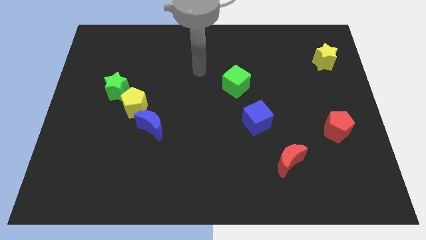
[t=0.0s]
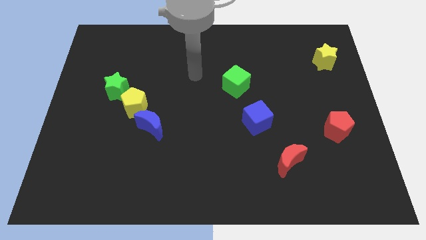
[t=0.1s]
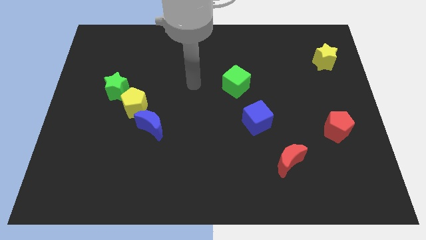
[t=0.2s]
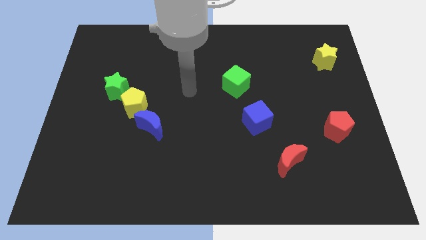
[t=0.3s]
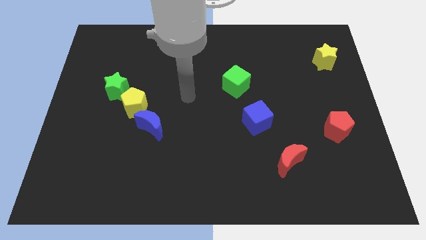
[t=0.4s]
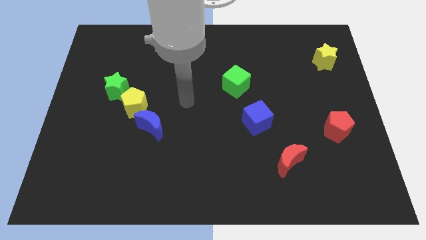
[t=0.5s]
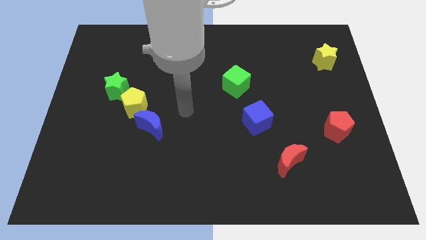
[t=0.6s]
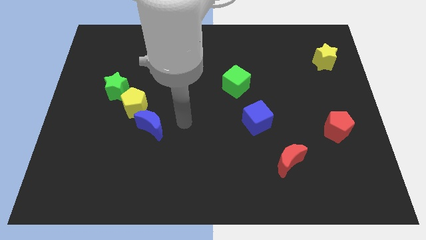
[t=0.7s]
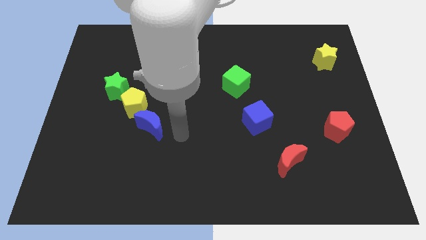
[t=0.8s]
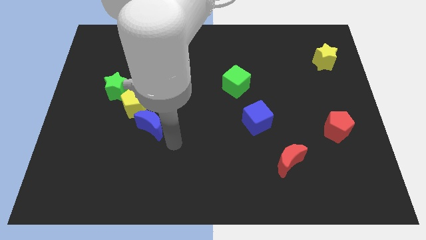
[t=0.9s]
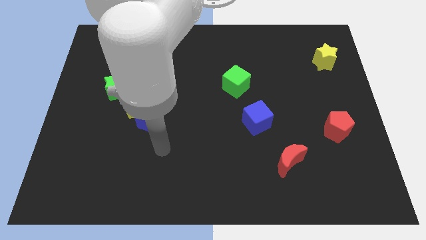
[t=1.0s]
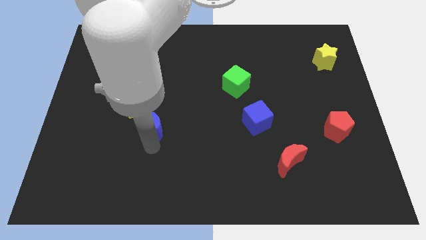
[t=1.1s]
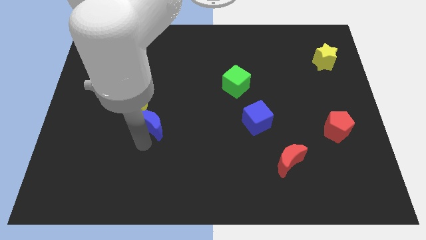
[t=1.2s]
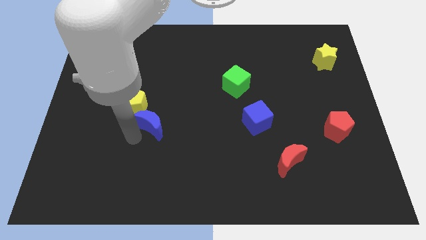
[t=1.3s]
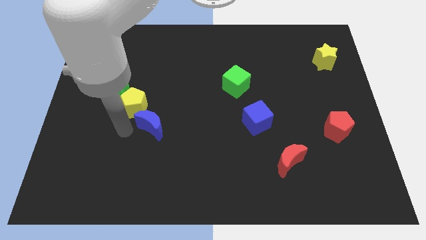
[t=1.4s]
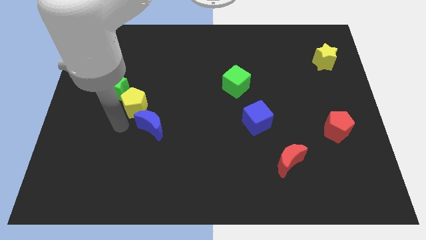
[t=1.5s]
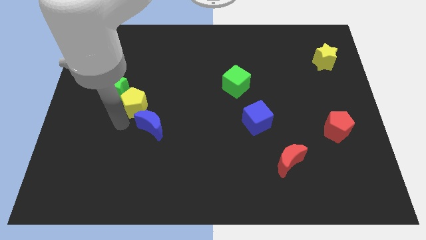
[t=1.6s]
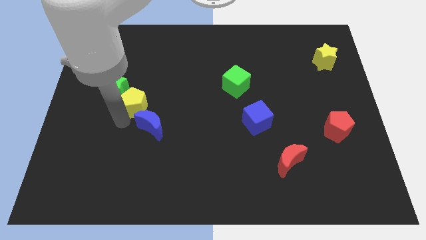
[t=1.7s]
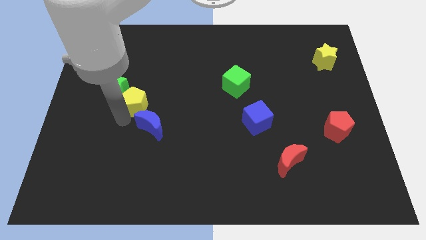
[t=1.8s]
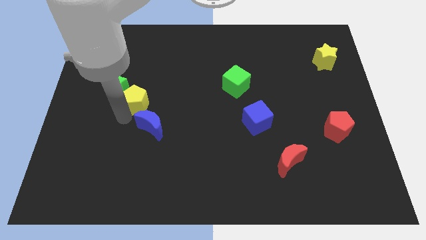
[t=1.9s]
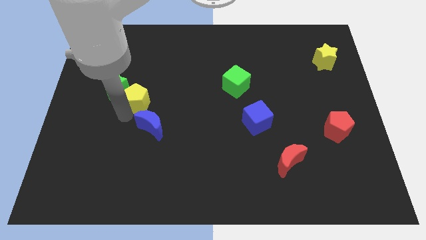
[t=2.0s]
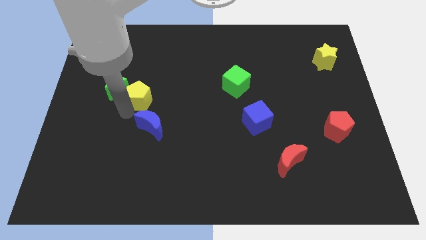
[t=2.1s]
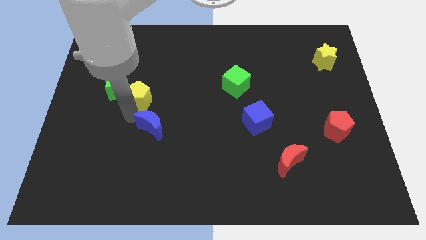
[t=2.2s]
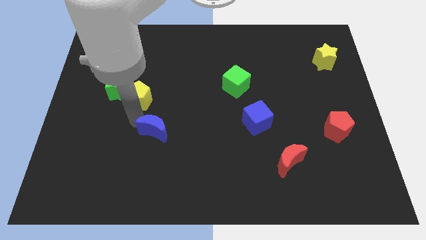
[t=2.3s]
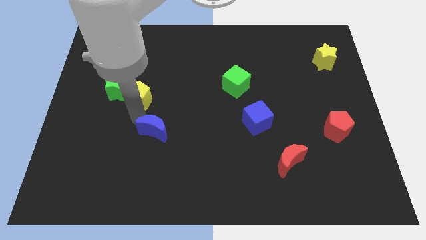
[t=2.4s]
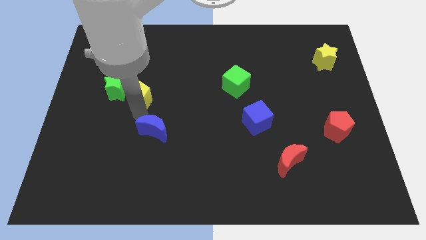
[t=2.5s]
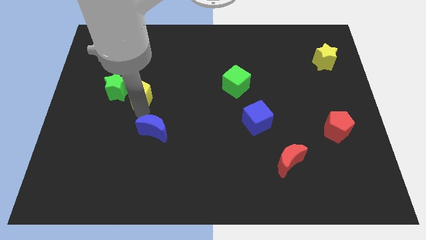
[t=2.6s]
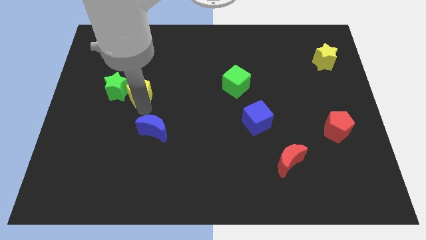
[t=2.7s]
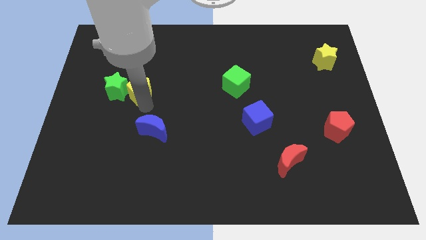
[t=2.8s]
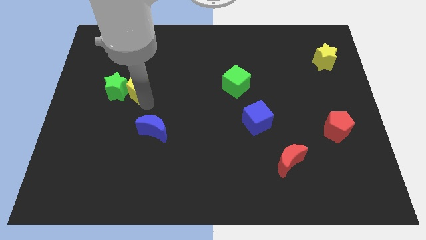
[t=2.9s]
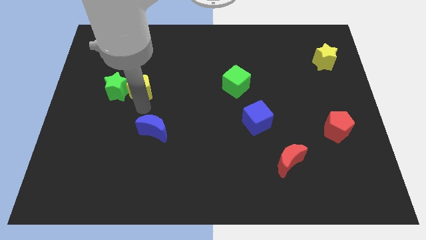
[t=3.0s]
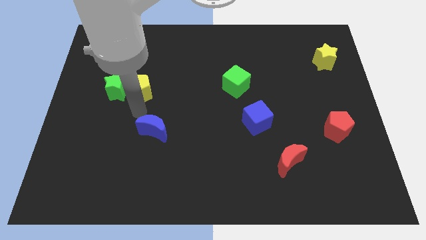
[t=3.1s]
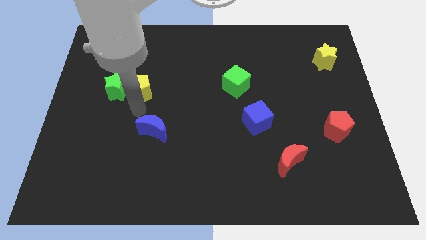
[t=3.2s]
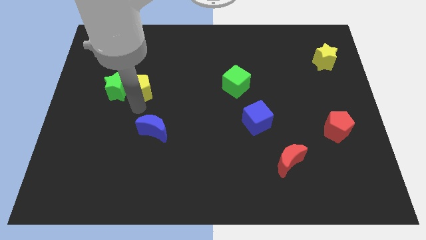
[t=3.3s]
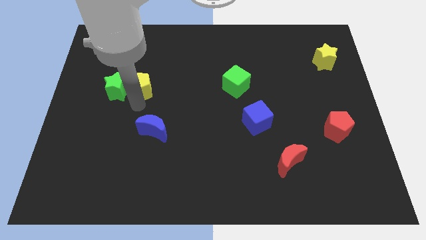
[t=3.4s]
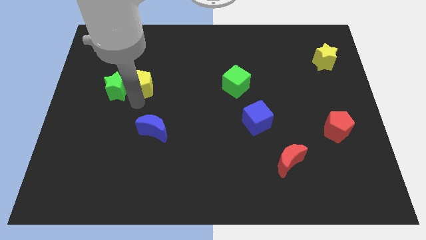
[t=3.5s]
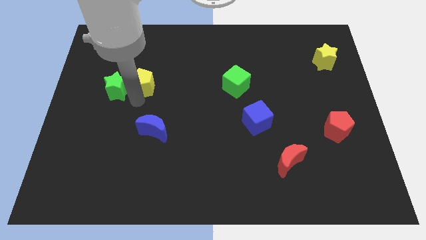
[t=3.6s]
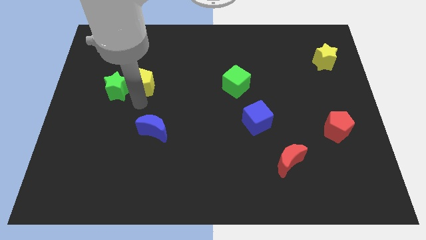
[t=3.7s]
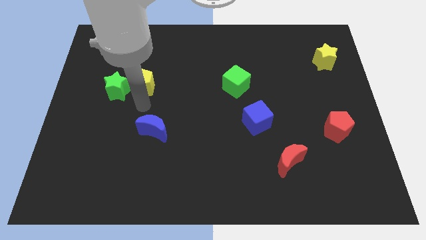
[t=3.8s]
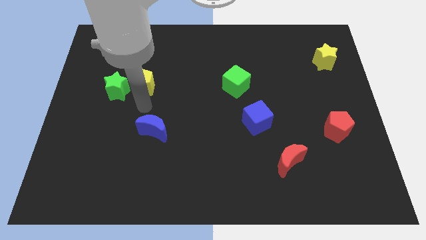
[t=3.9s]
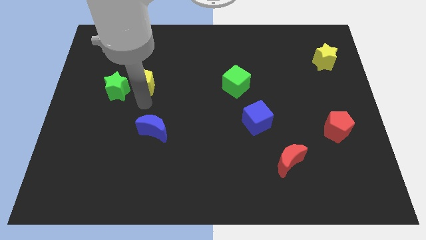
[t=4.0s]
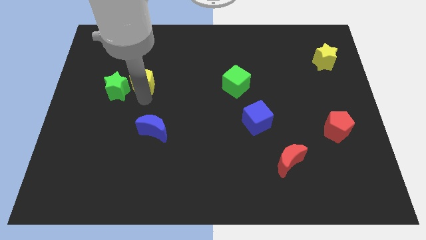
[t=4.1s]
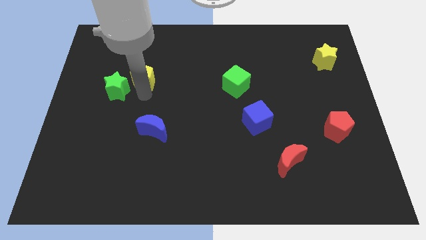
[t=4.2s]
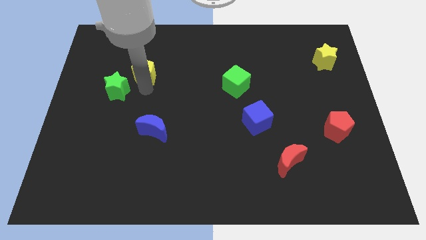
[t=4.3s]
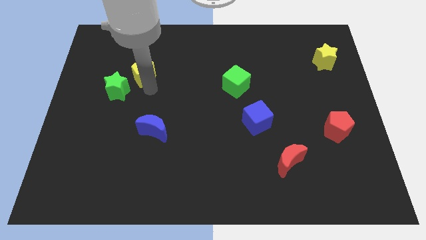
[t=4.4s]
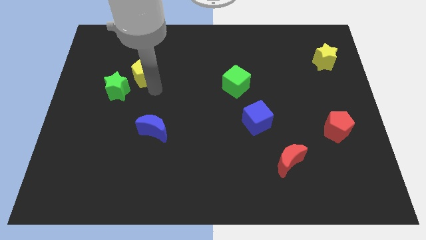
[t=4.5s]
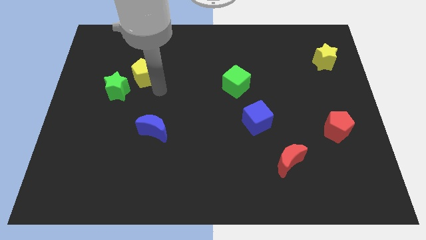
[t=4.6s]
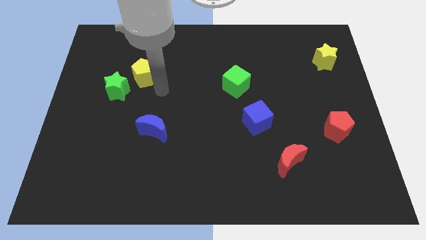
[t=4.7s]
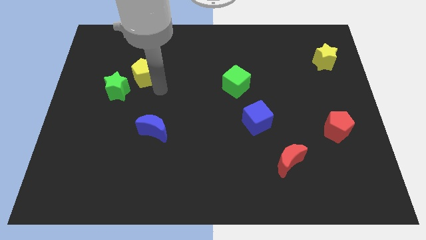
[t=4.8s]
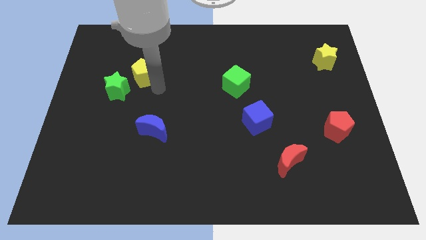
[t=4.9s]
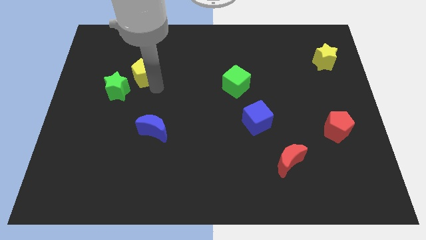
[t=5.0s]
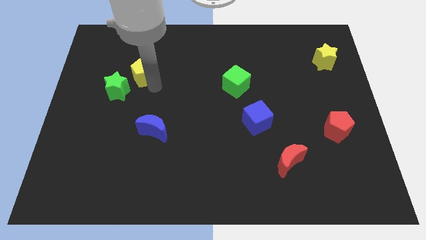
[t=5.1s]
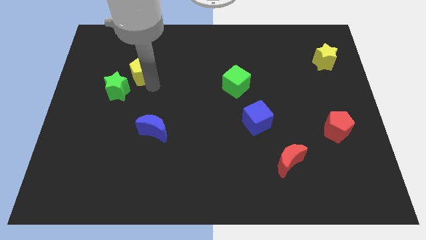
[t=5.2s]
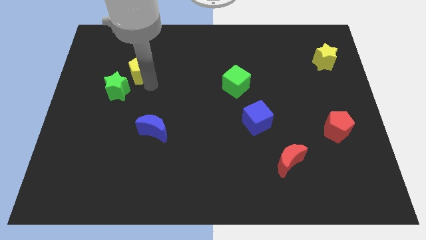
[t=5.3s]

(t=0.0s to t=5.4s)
push the yellow pentagon to the top side of the green star

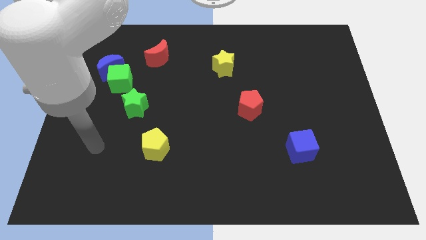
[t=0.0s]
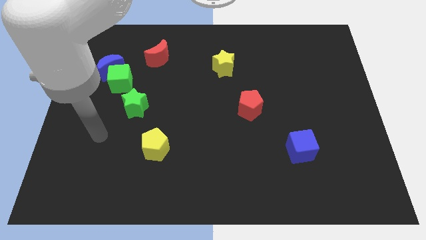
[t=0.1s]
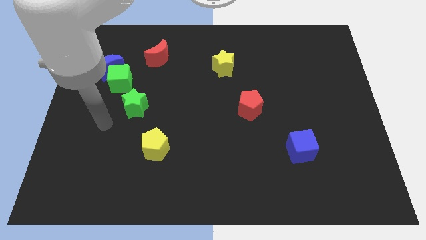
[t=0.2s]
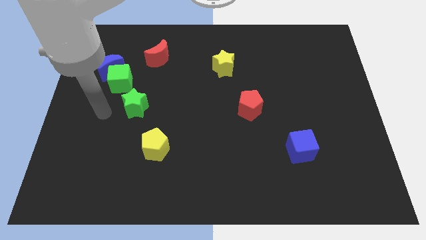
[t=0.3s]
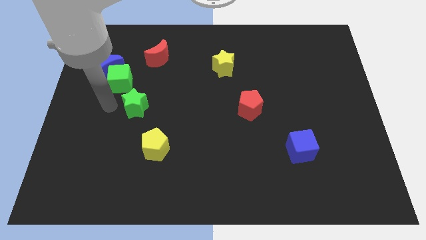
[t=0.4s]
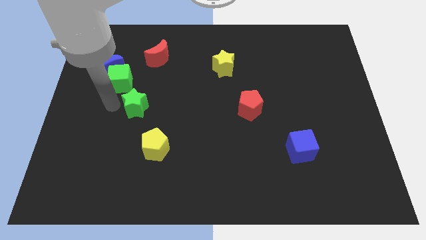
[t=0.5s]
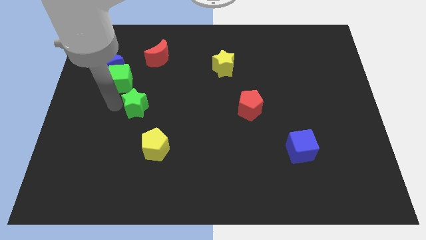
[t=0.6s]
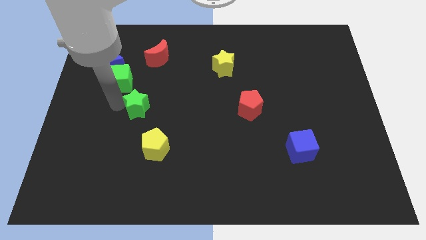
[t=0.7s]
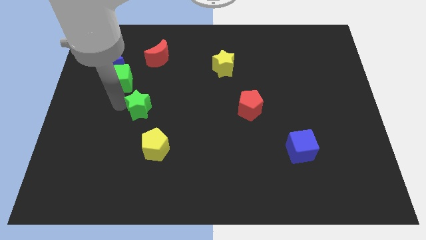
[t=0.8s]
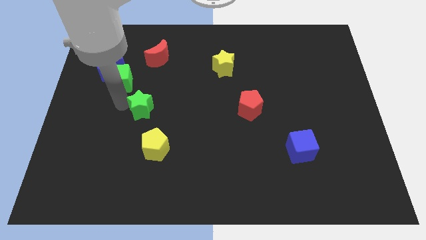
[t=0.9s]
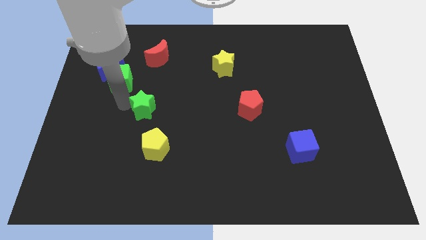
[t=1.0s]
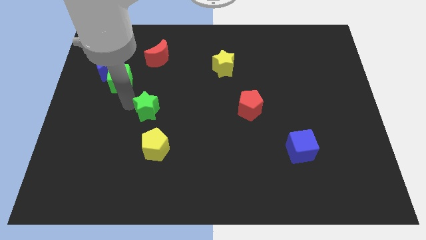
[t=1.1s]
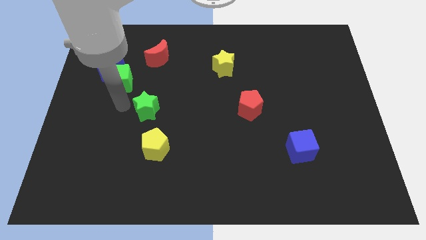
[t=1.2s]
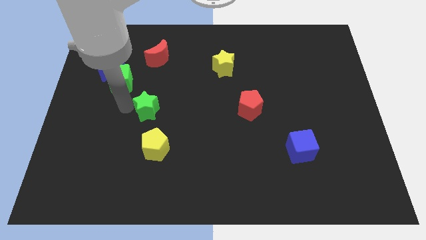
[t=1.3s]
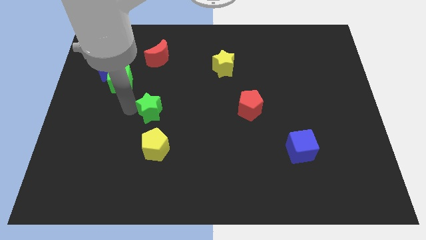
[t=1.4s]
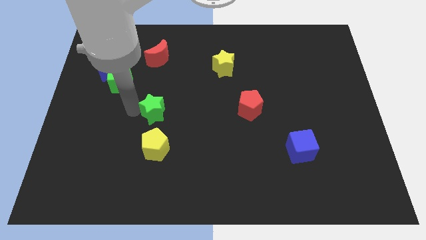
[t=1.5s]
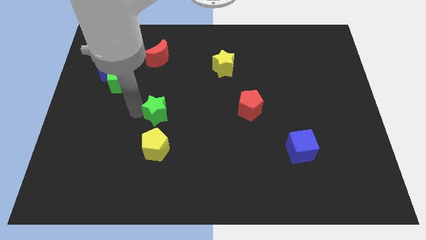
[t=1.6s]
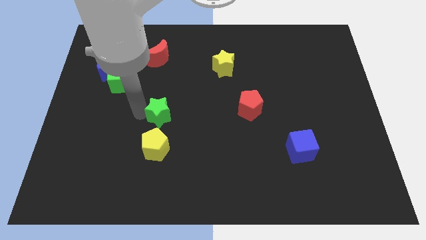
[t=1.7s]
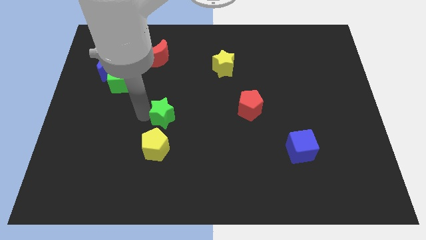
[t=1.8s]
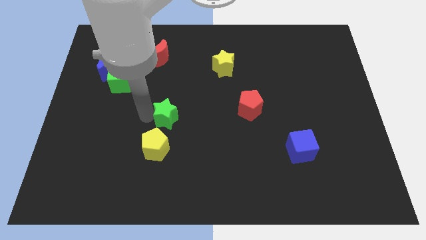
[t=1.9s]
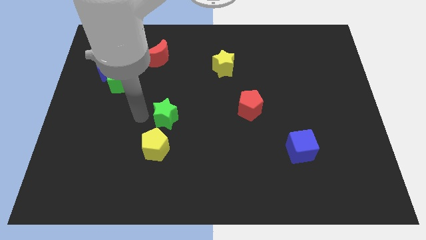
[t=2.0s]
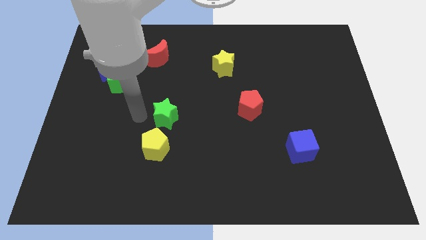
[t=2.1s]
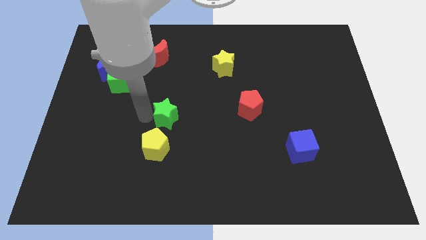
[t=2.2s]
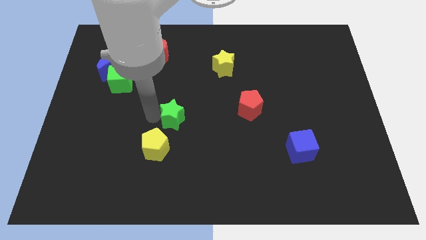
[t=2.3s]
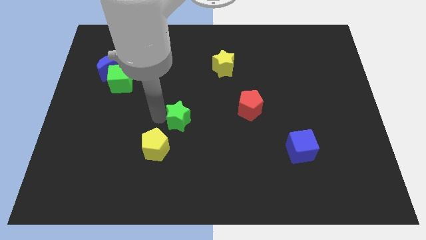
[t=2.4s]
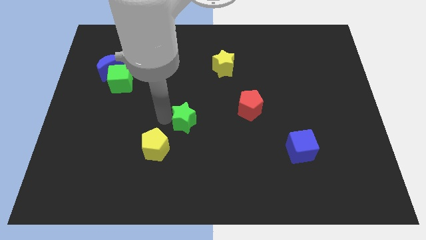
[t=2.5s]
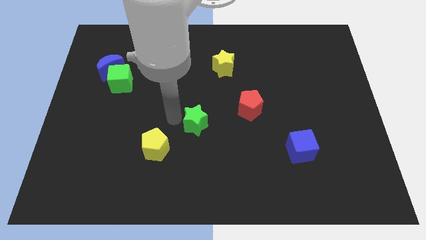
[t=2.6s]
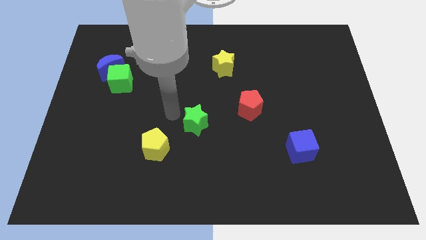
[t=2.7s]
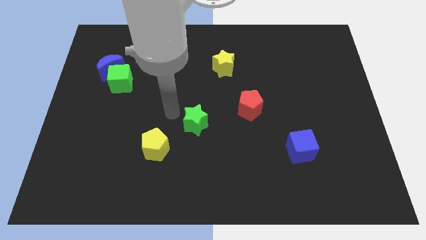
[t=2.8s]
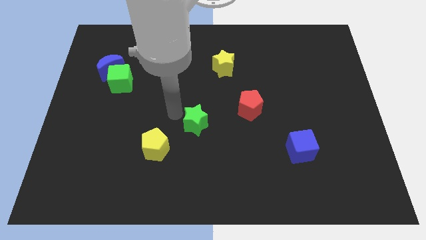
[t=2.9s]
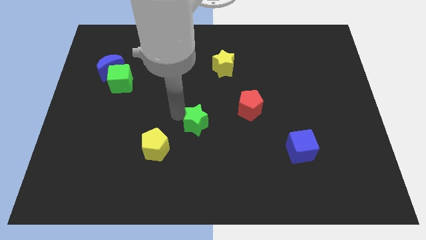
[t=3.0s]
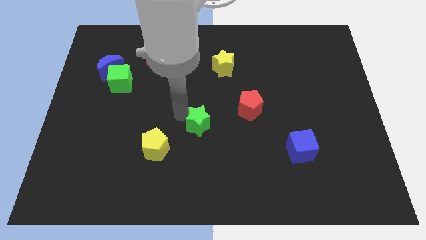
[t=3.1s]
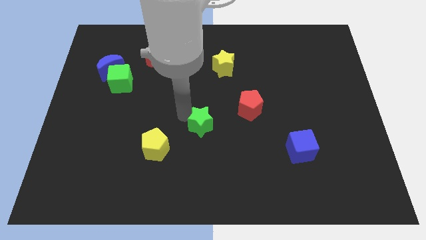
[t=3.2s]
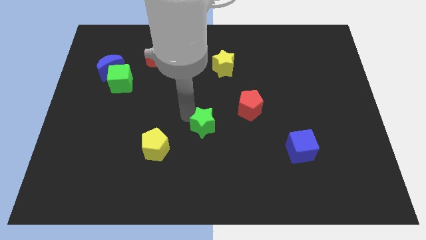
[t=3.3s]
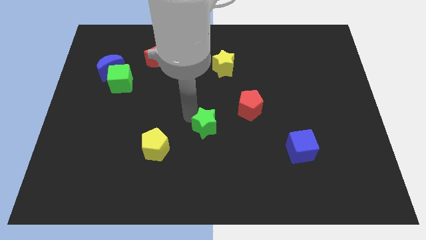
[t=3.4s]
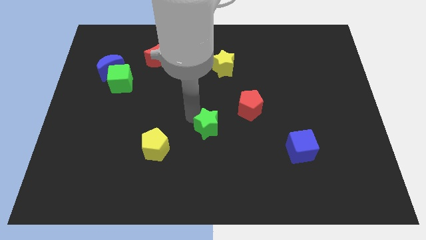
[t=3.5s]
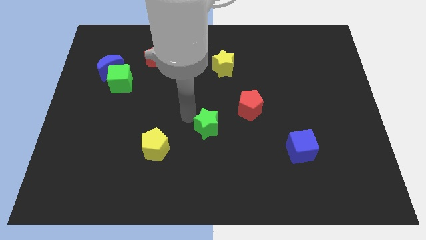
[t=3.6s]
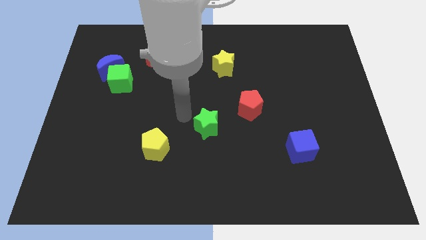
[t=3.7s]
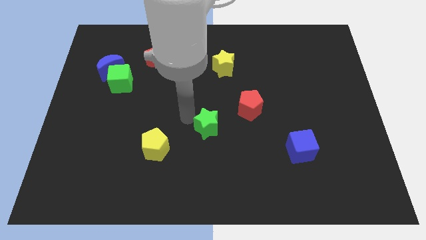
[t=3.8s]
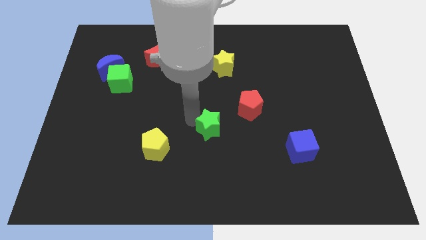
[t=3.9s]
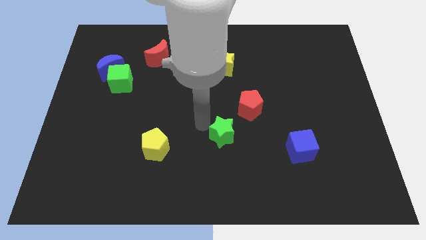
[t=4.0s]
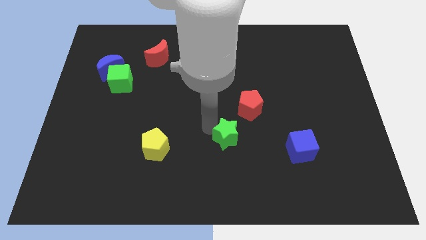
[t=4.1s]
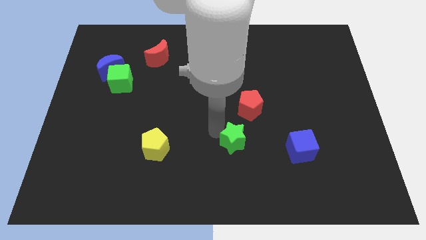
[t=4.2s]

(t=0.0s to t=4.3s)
push the green star just left of the blue cube
